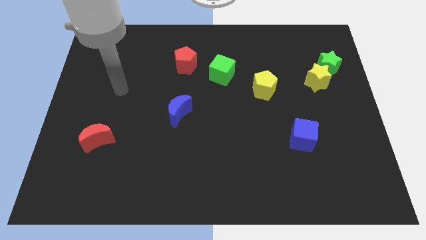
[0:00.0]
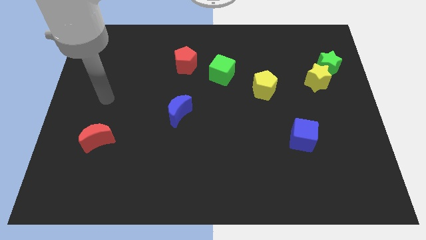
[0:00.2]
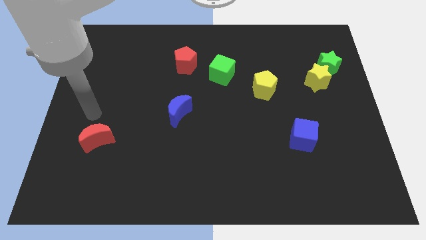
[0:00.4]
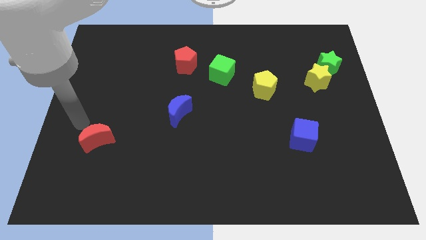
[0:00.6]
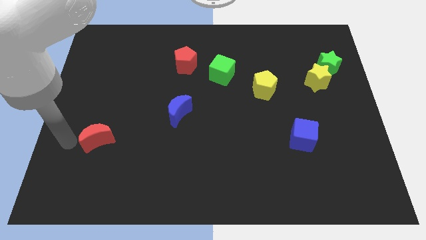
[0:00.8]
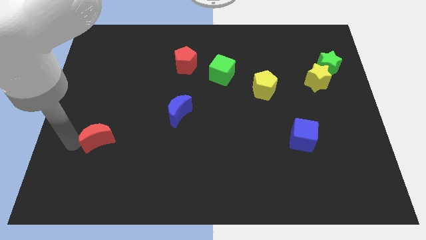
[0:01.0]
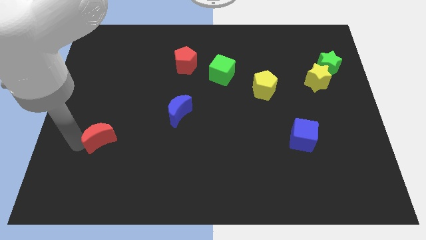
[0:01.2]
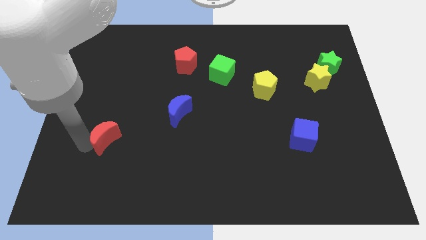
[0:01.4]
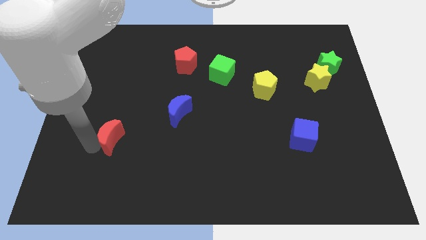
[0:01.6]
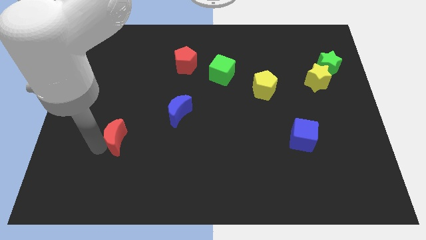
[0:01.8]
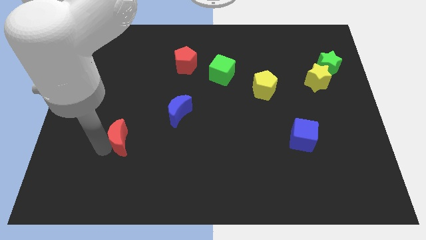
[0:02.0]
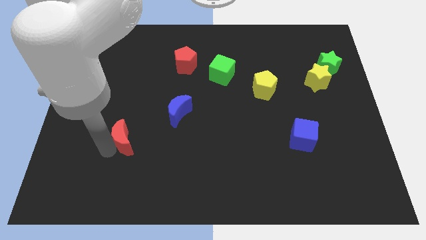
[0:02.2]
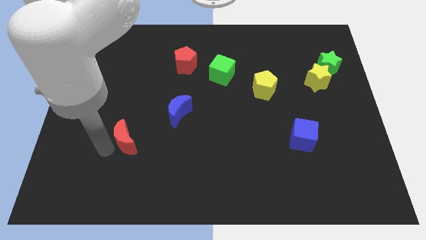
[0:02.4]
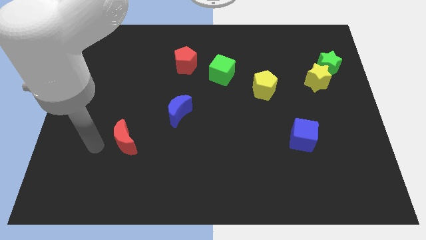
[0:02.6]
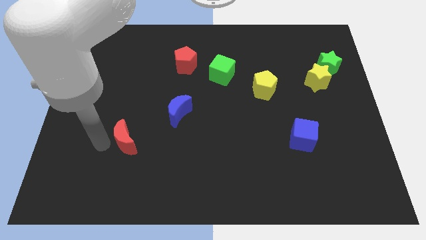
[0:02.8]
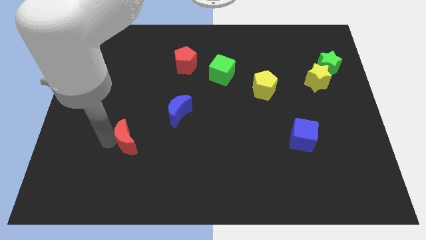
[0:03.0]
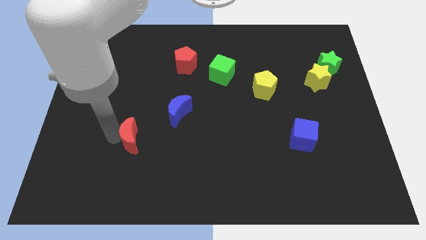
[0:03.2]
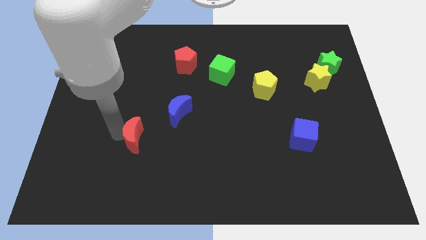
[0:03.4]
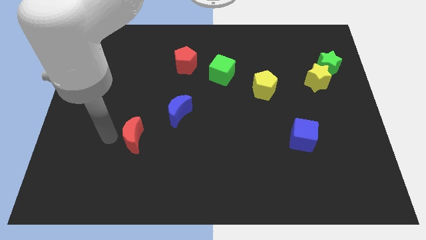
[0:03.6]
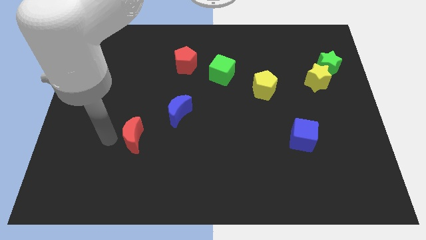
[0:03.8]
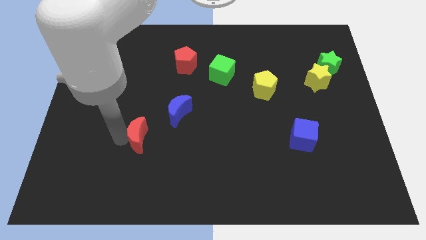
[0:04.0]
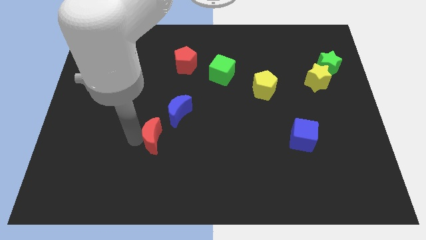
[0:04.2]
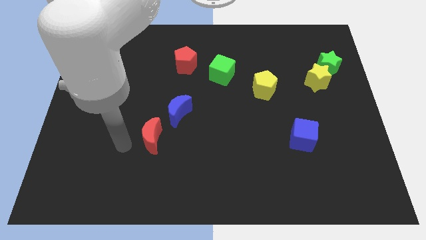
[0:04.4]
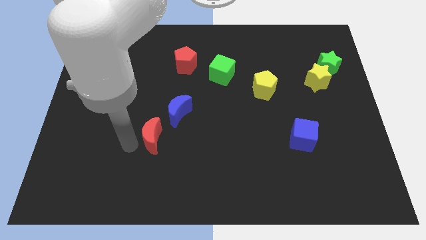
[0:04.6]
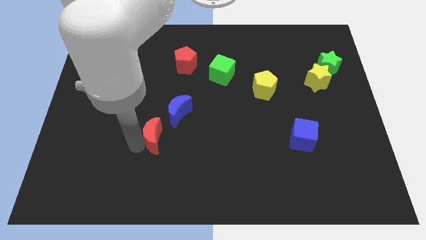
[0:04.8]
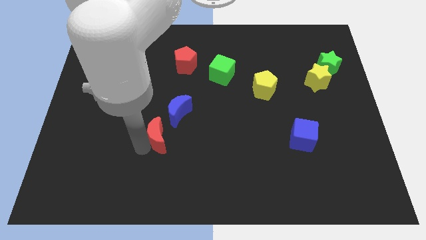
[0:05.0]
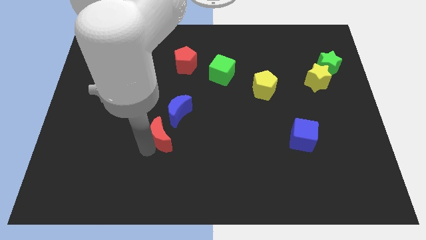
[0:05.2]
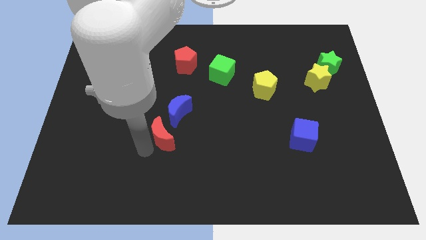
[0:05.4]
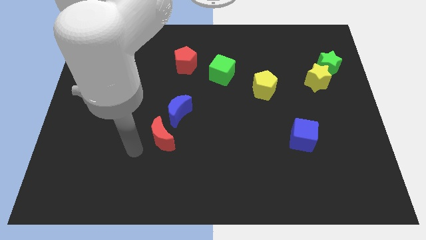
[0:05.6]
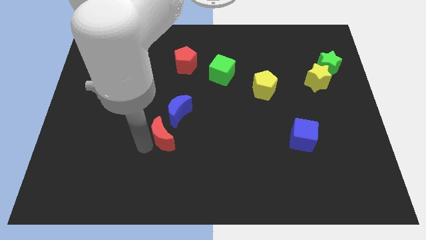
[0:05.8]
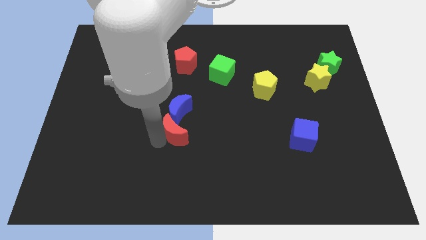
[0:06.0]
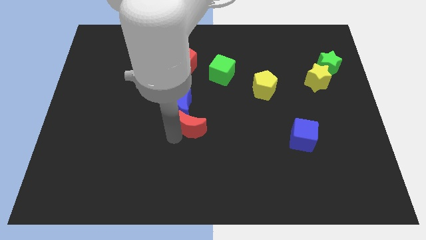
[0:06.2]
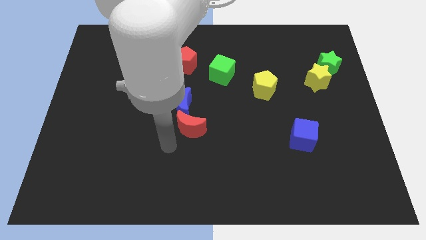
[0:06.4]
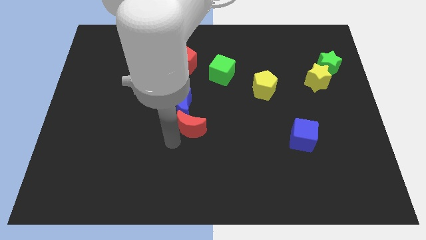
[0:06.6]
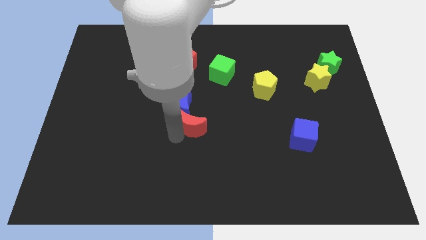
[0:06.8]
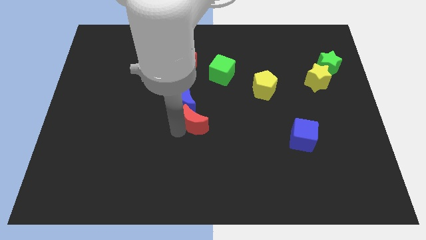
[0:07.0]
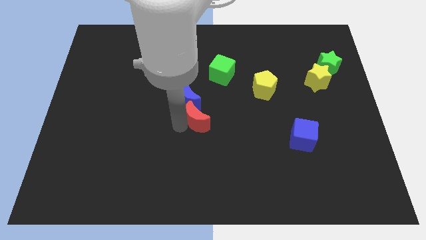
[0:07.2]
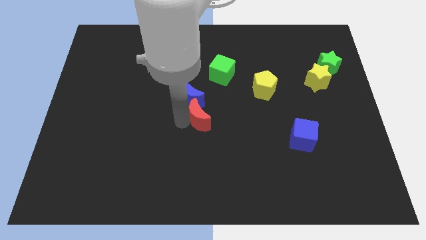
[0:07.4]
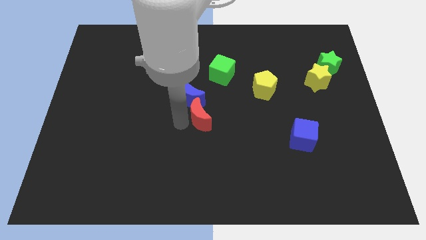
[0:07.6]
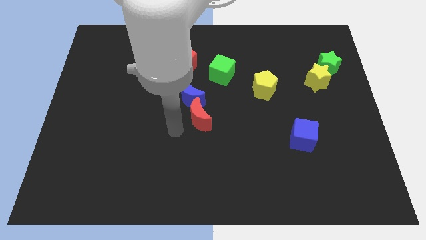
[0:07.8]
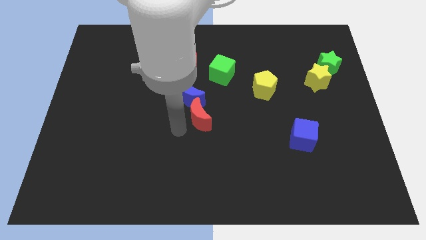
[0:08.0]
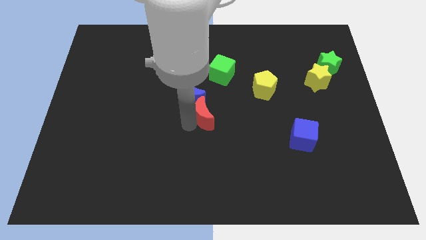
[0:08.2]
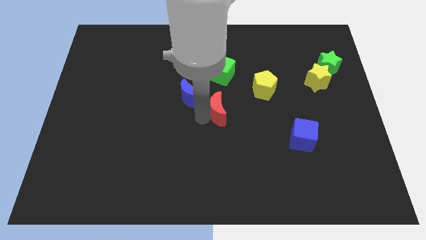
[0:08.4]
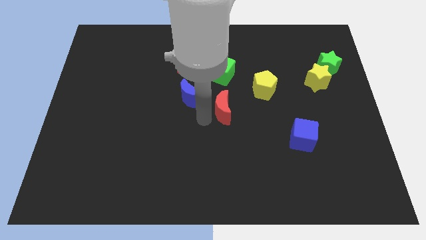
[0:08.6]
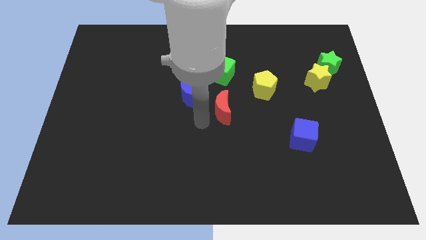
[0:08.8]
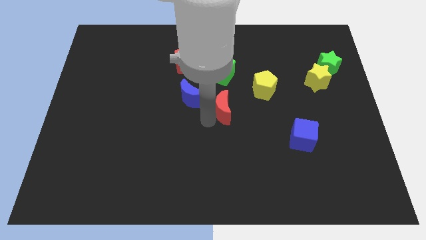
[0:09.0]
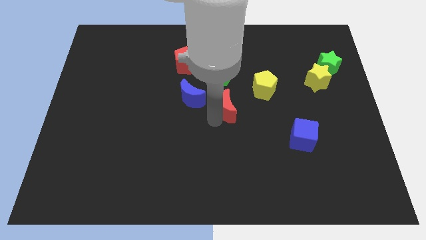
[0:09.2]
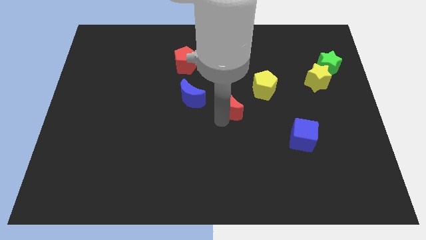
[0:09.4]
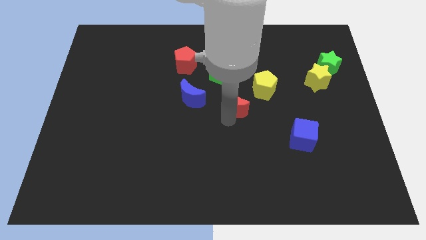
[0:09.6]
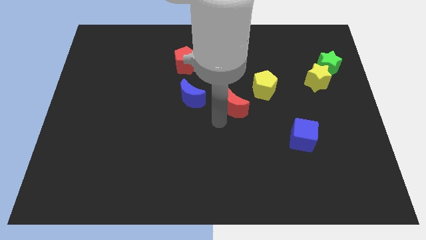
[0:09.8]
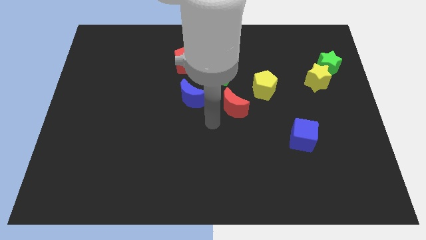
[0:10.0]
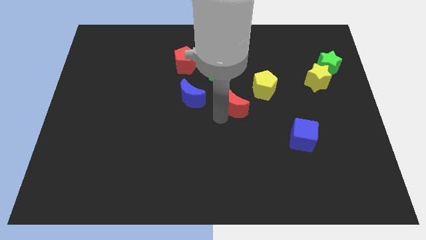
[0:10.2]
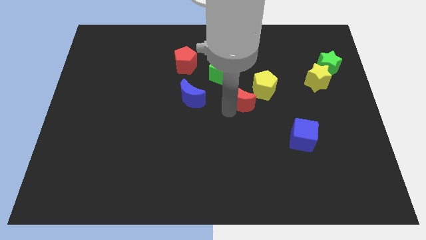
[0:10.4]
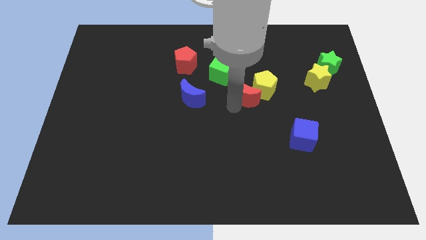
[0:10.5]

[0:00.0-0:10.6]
push the red moon to the yellow pentagon

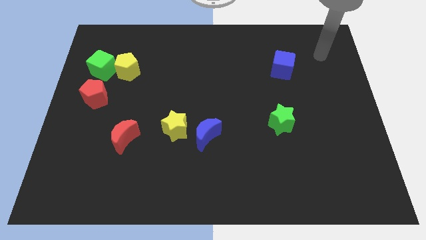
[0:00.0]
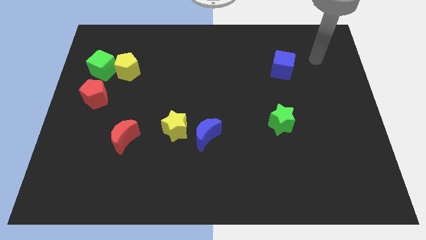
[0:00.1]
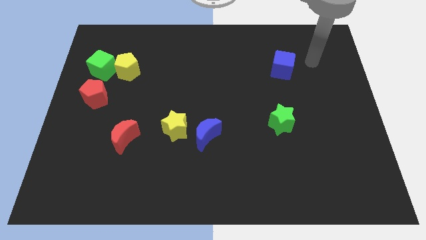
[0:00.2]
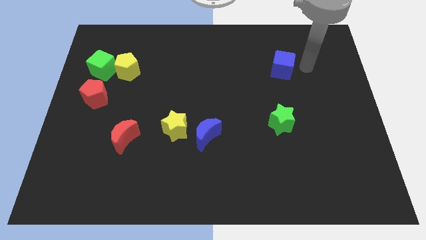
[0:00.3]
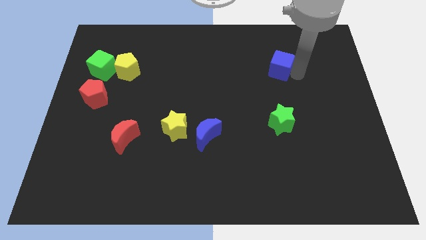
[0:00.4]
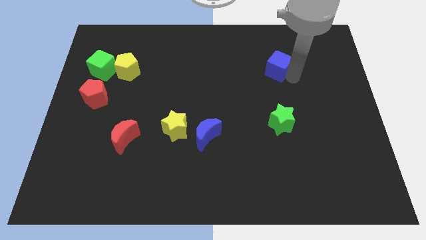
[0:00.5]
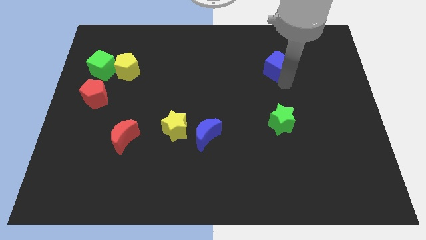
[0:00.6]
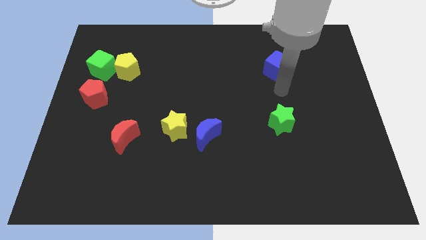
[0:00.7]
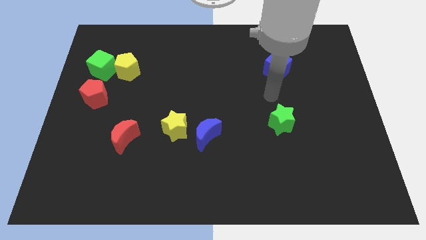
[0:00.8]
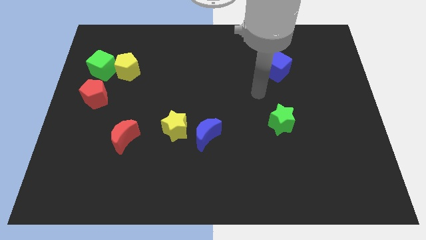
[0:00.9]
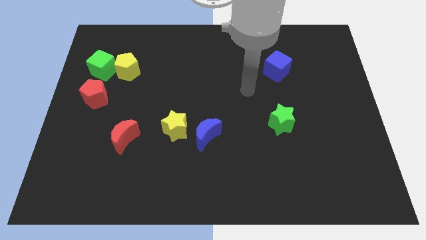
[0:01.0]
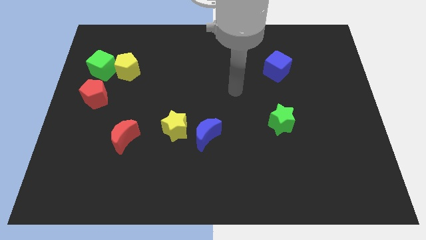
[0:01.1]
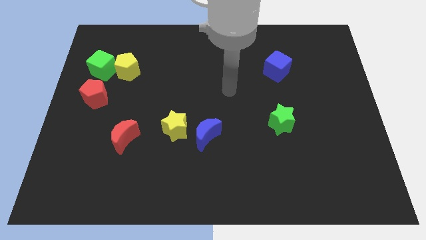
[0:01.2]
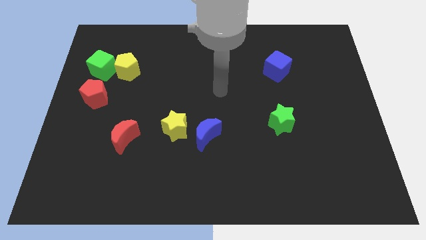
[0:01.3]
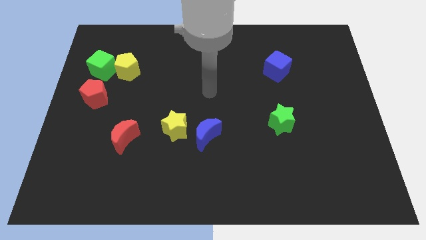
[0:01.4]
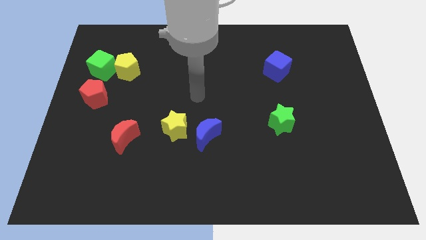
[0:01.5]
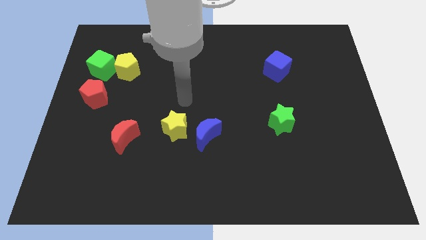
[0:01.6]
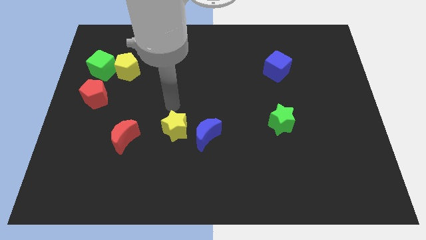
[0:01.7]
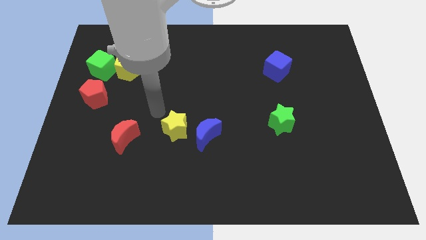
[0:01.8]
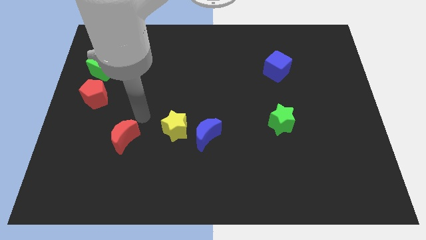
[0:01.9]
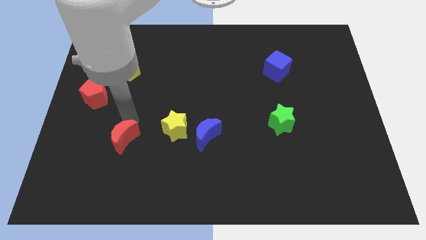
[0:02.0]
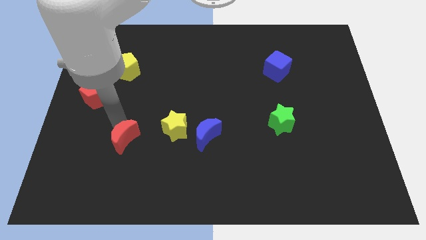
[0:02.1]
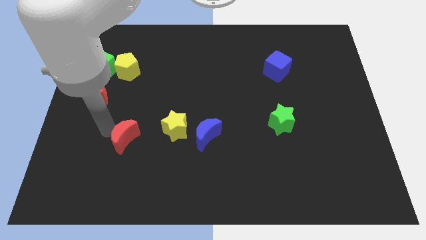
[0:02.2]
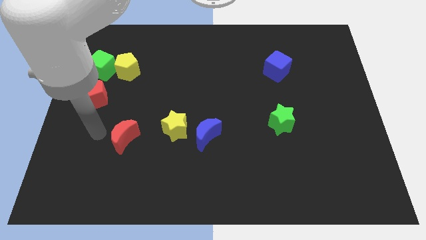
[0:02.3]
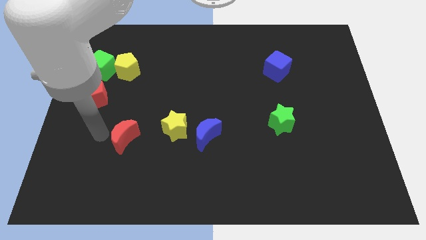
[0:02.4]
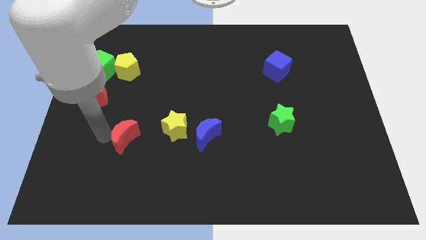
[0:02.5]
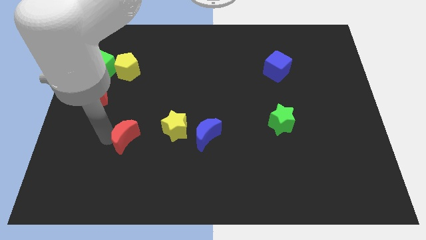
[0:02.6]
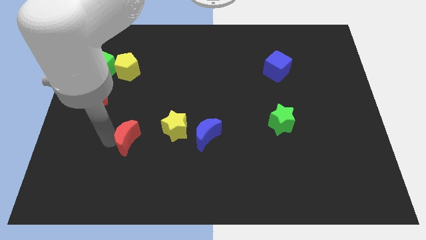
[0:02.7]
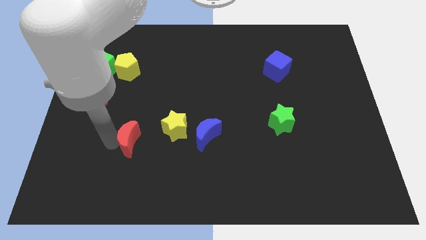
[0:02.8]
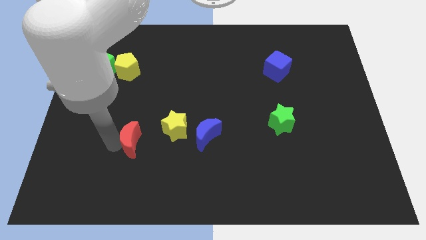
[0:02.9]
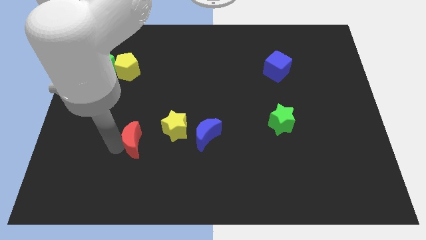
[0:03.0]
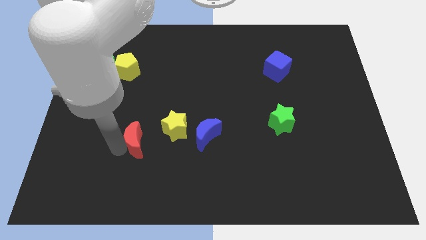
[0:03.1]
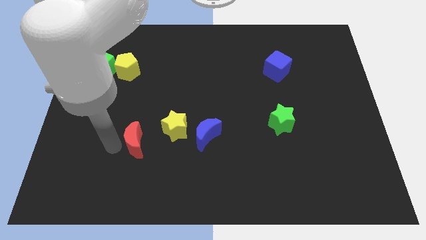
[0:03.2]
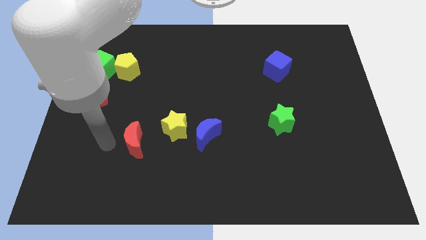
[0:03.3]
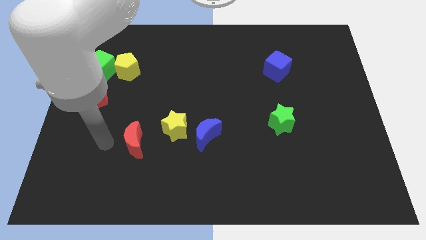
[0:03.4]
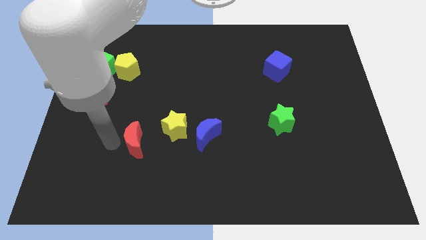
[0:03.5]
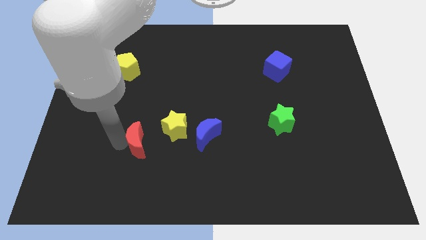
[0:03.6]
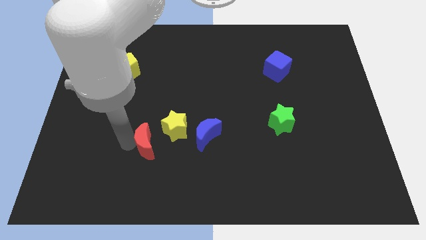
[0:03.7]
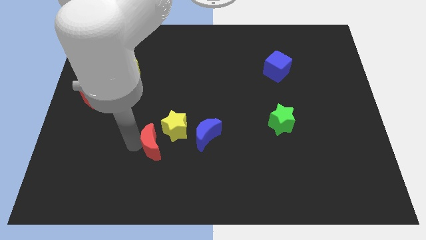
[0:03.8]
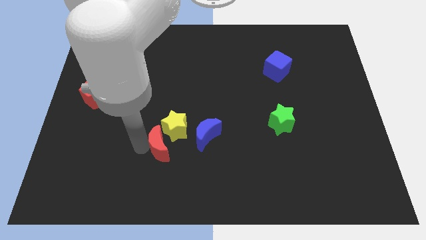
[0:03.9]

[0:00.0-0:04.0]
push the red moon next to the yellow star
